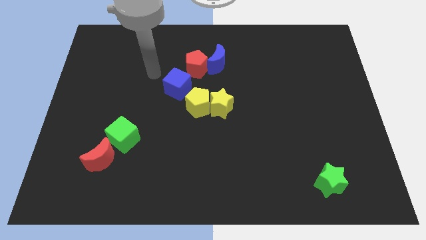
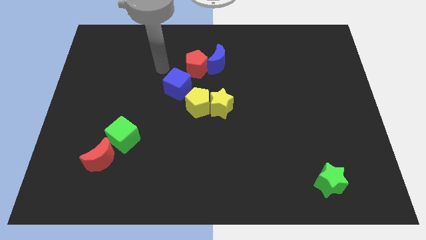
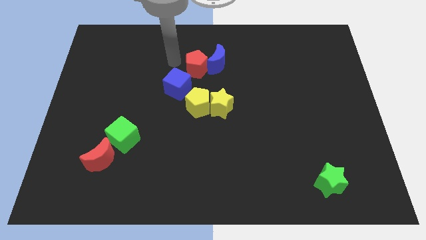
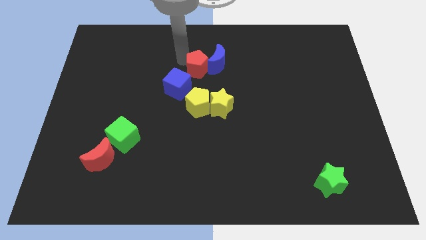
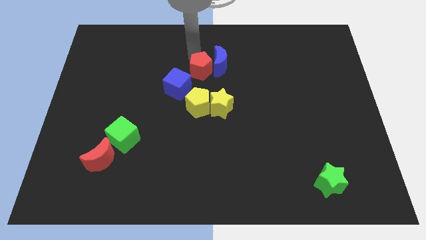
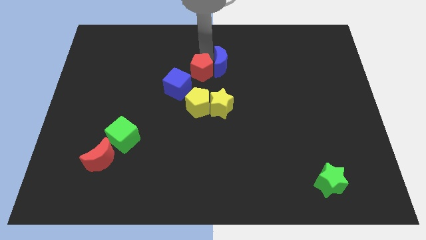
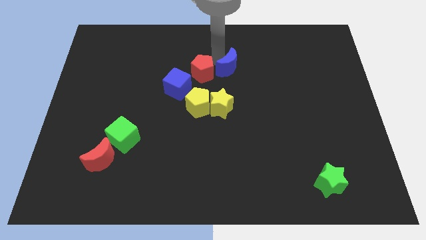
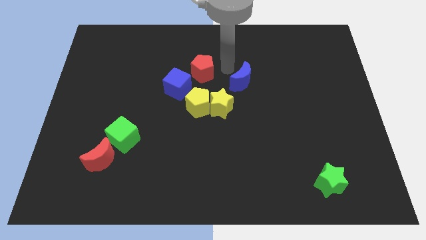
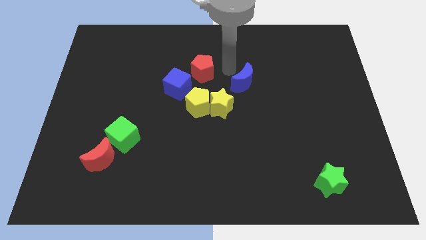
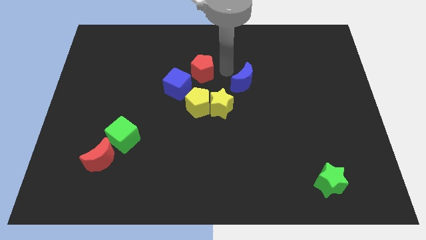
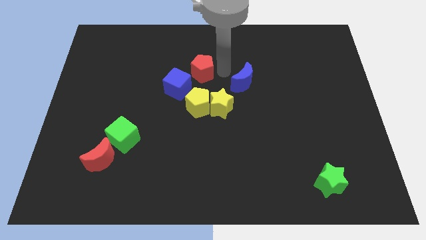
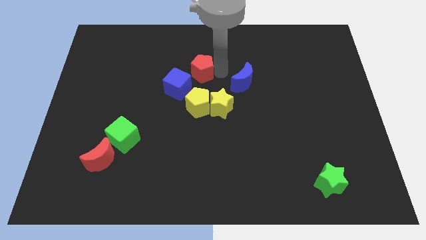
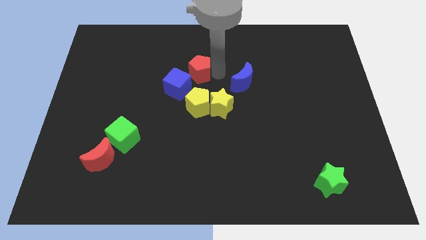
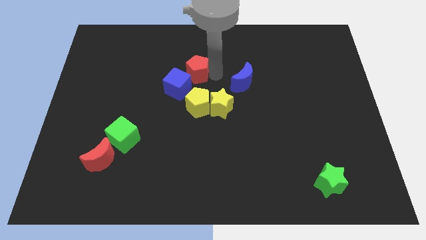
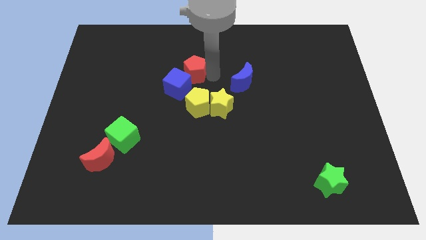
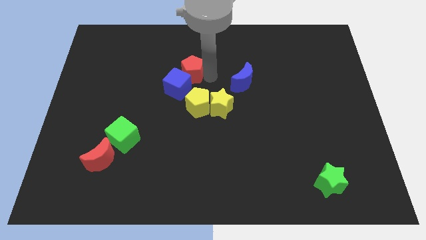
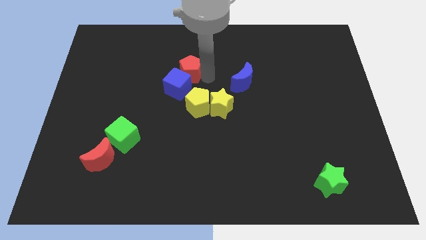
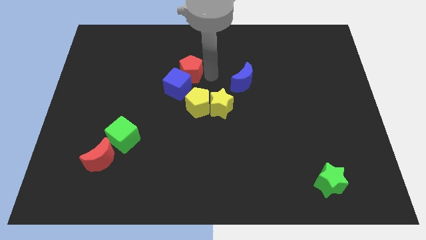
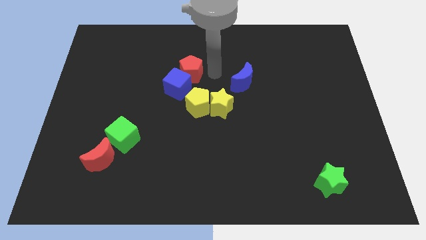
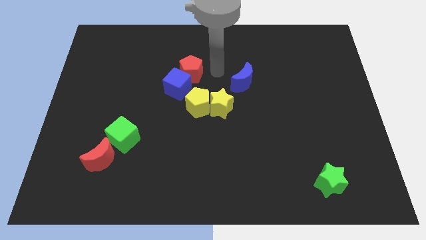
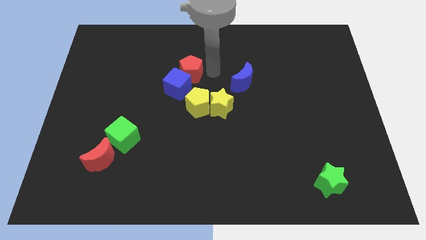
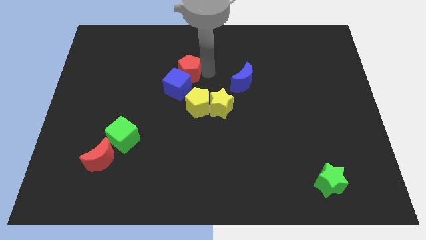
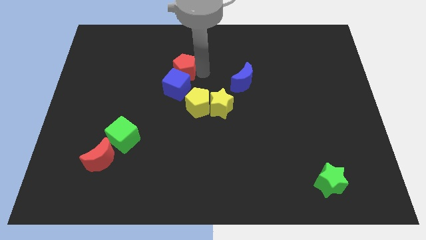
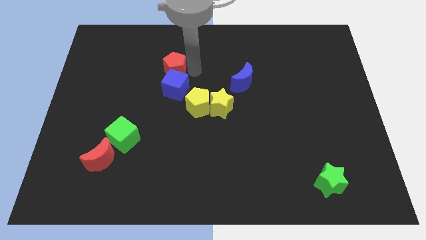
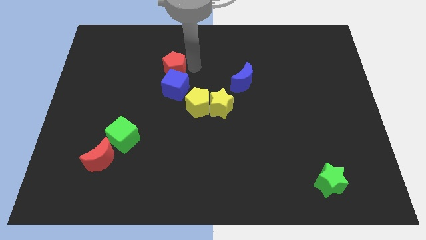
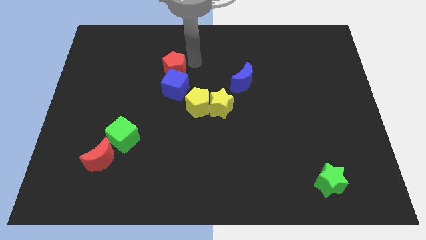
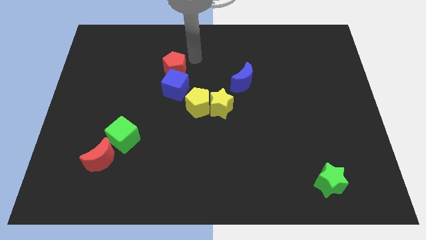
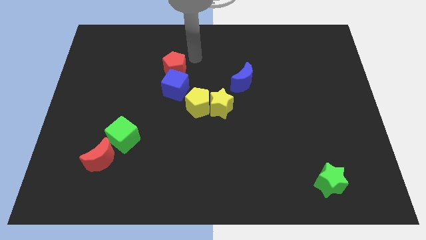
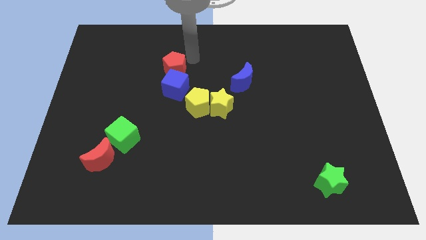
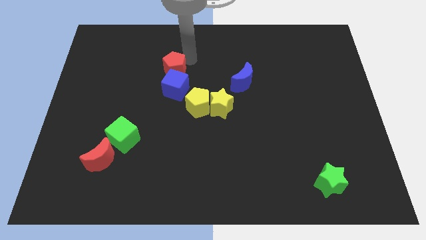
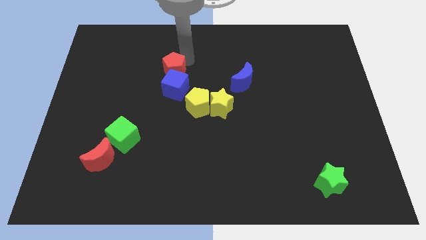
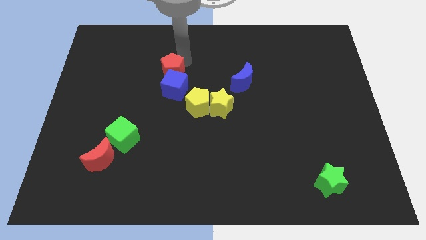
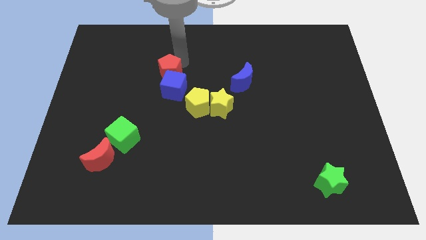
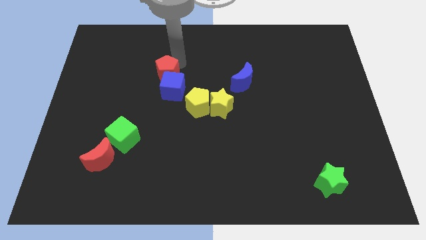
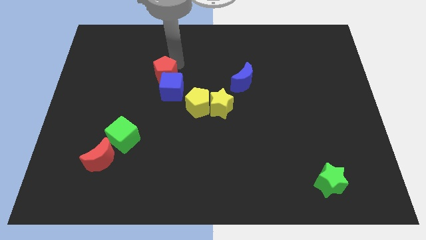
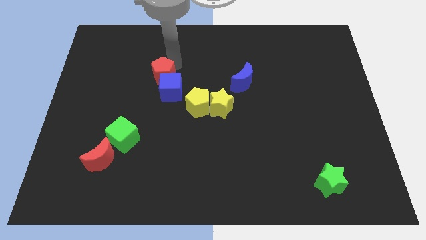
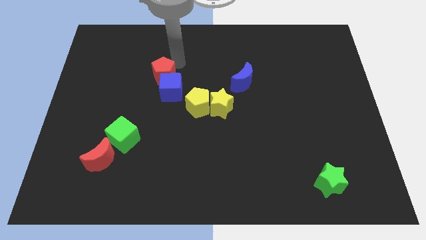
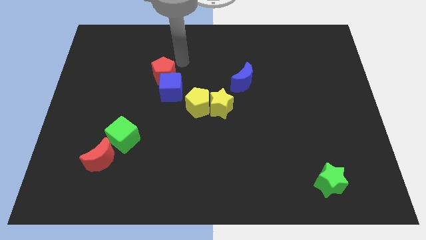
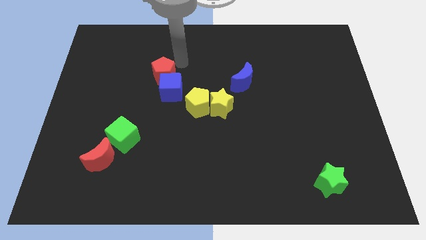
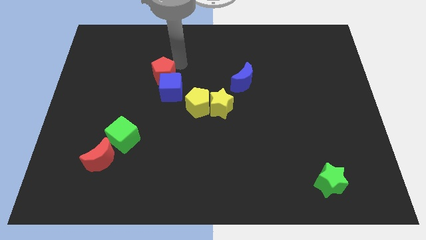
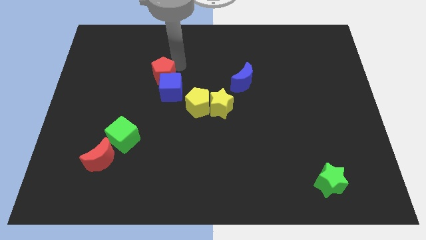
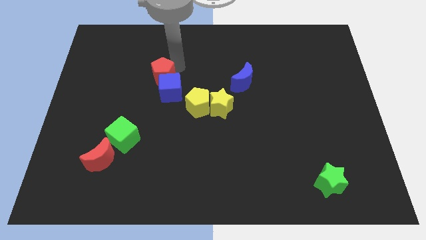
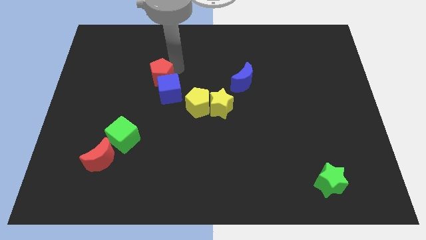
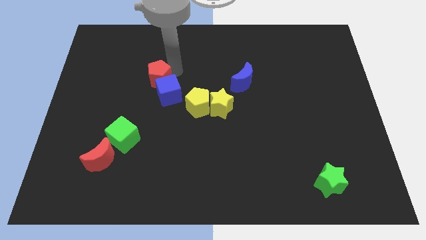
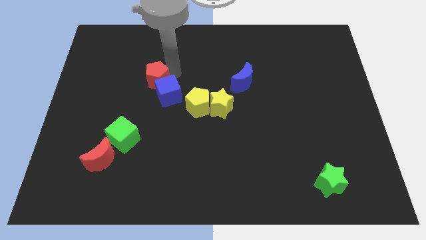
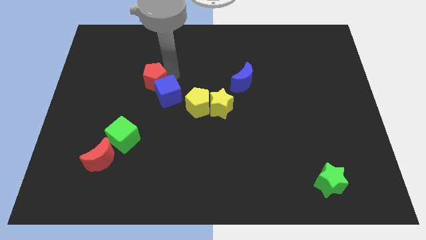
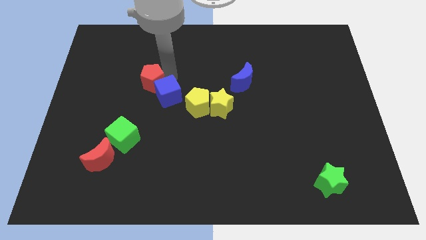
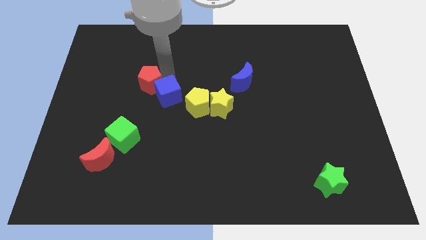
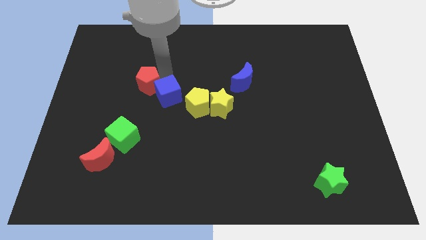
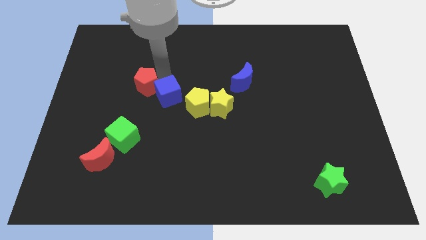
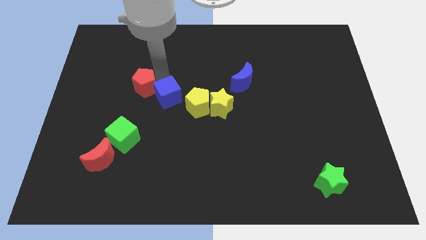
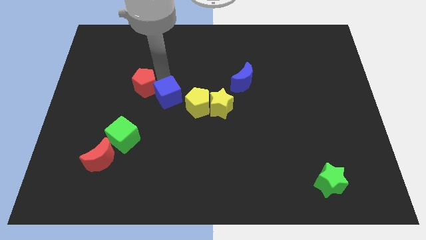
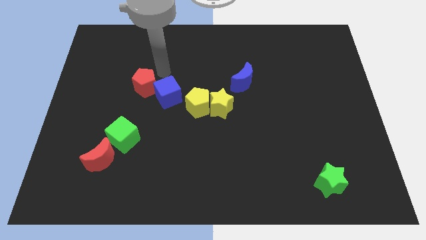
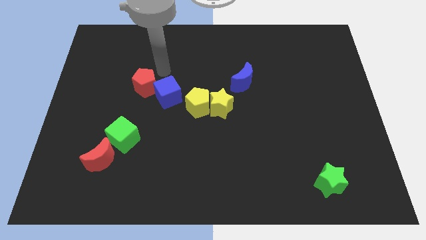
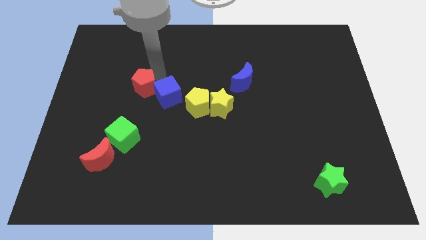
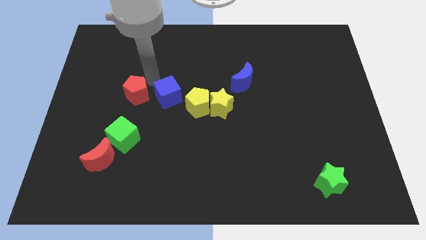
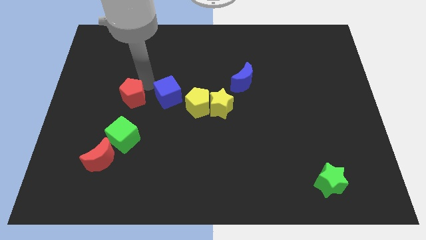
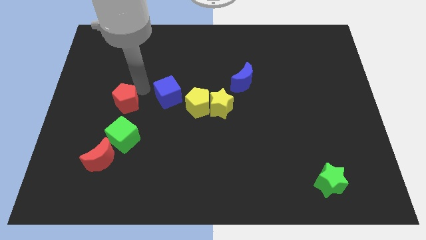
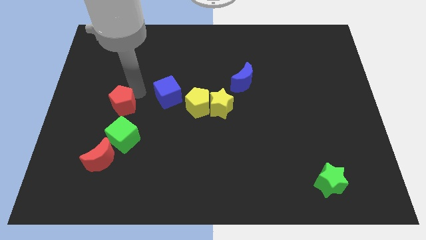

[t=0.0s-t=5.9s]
move the red pentagon downwards and to the left

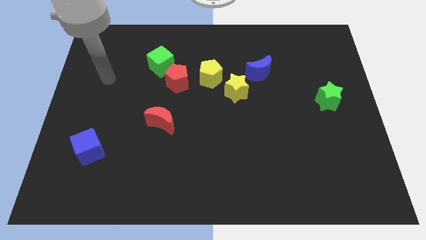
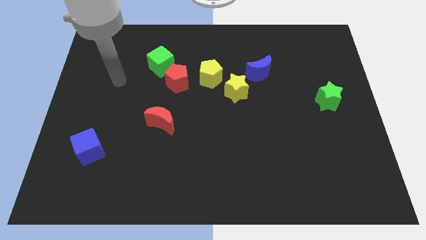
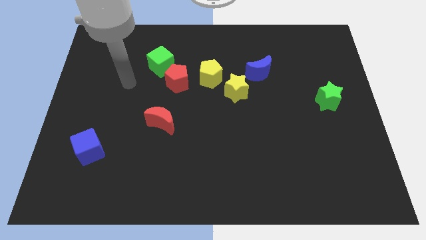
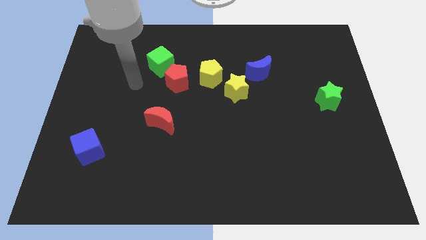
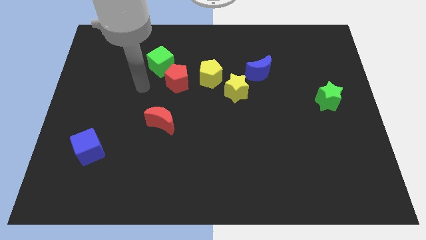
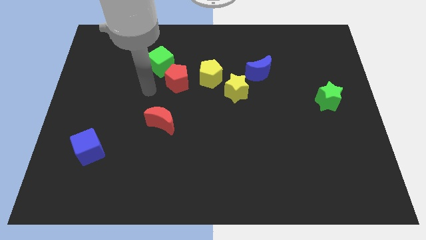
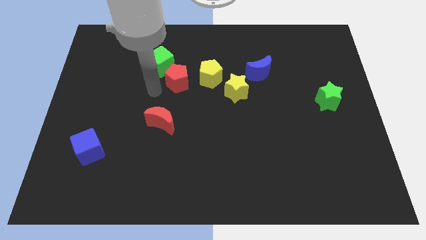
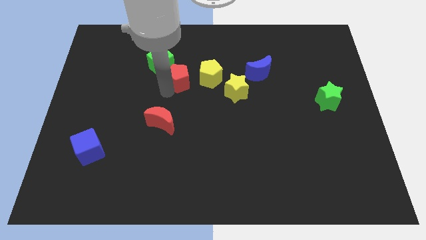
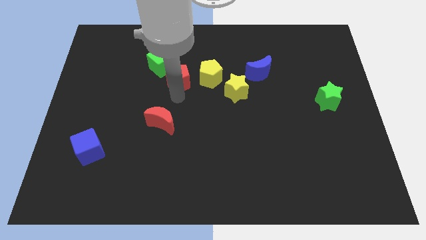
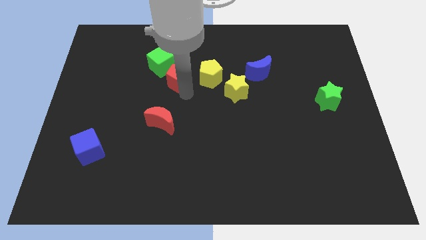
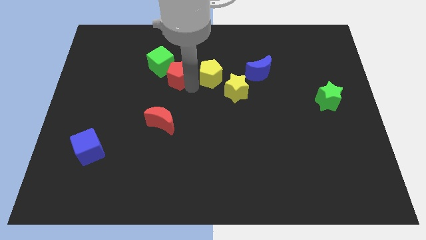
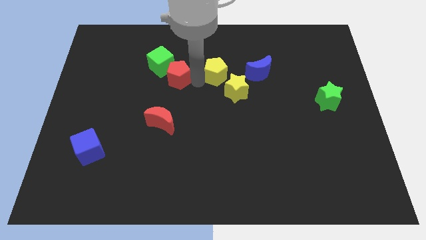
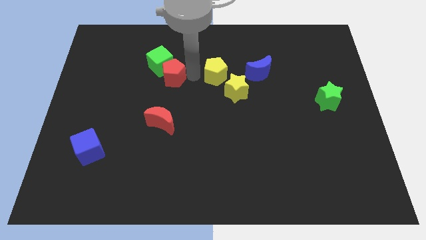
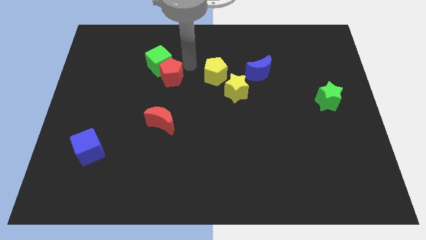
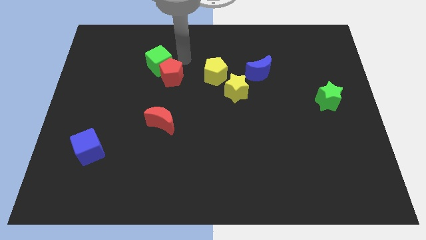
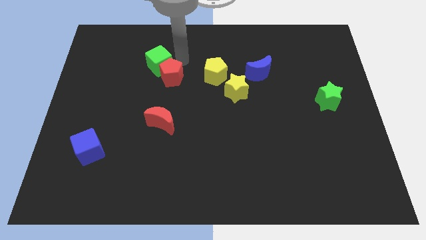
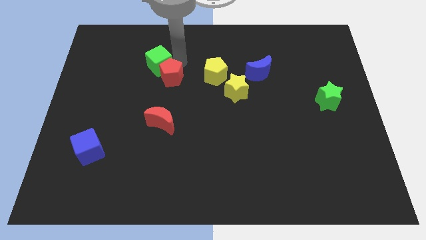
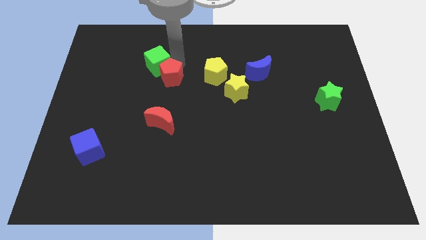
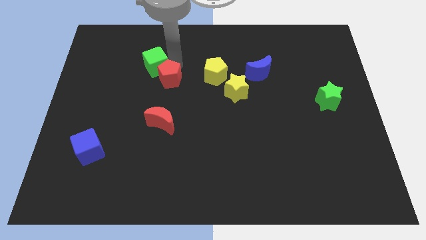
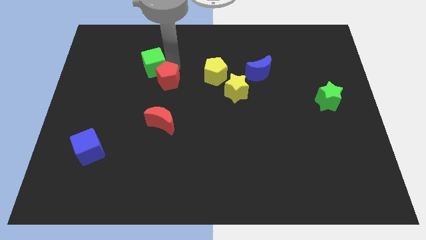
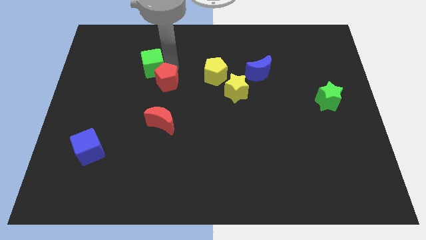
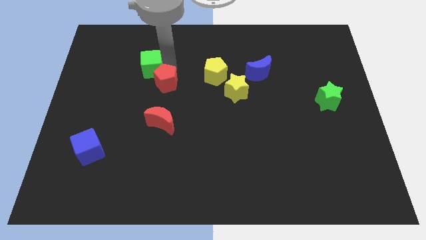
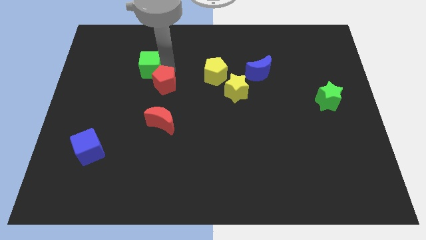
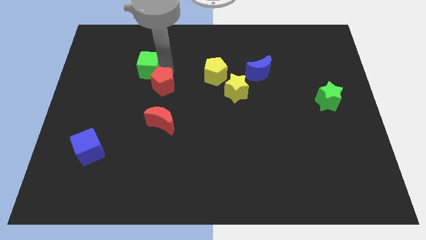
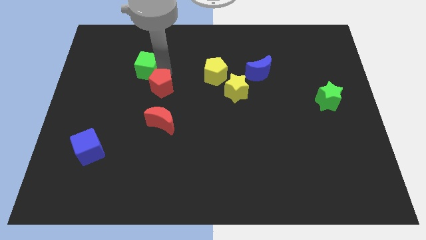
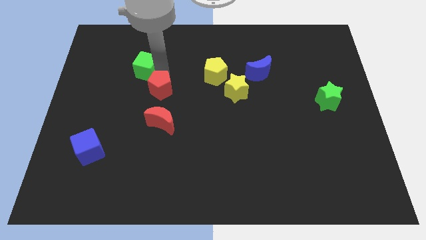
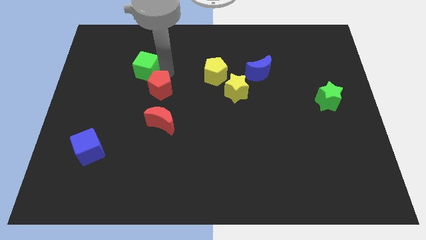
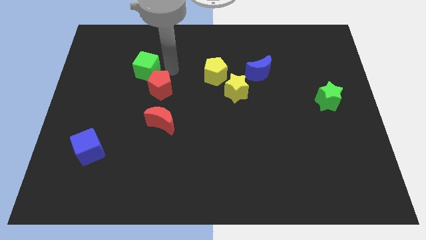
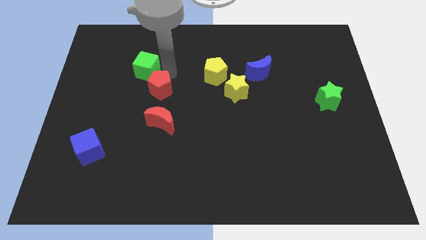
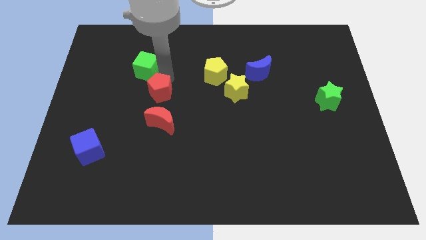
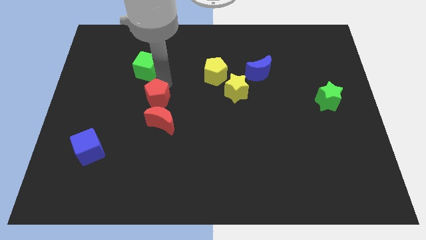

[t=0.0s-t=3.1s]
push the red pentagon downwards and then left a little bit
